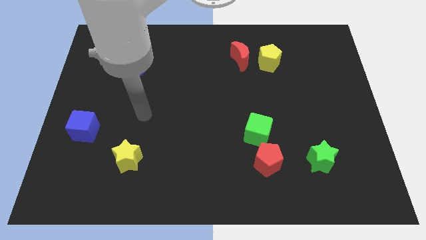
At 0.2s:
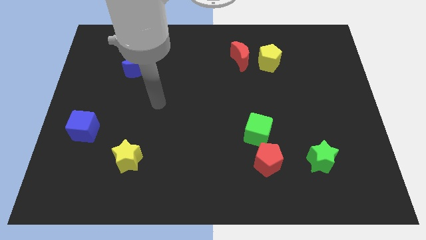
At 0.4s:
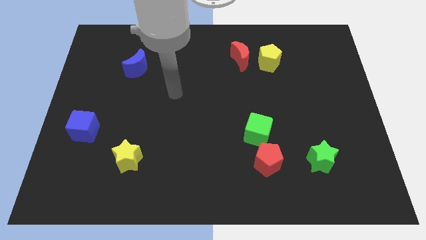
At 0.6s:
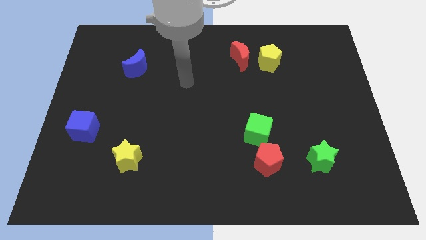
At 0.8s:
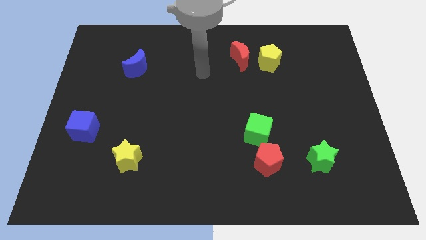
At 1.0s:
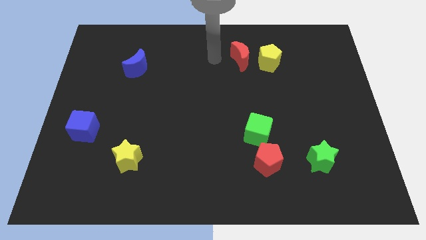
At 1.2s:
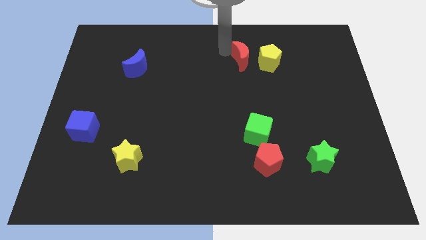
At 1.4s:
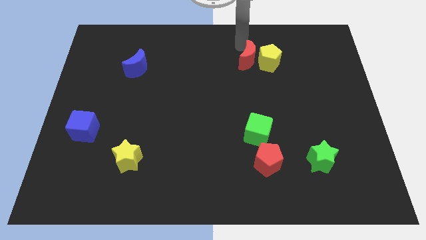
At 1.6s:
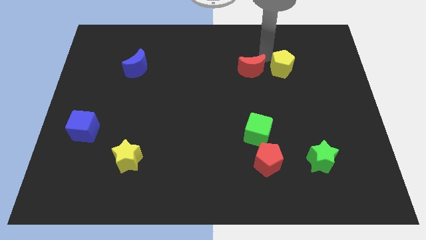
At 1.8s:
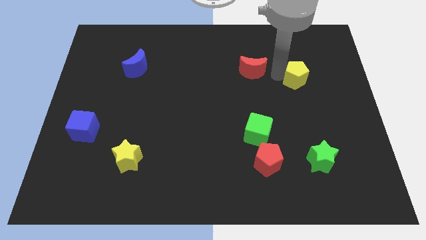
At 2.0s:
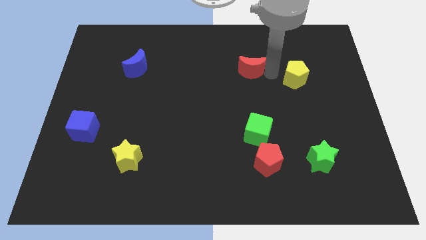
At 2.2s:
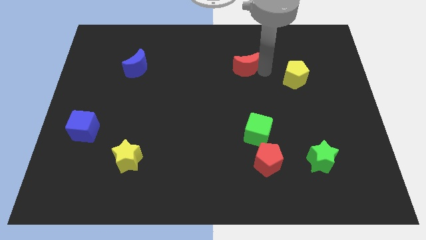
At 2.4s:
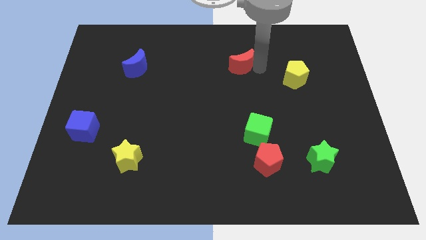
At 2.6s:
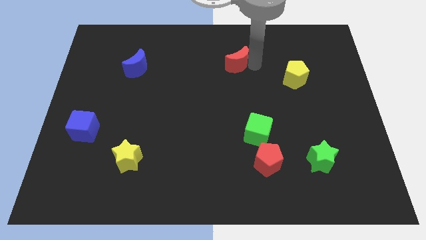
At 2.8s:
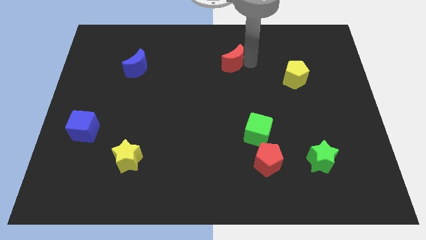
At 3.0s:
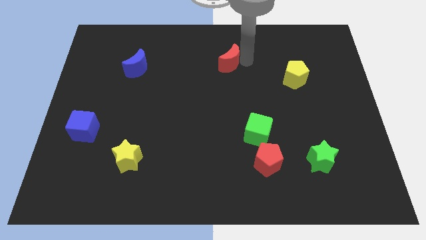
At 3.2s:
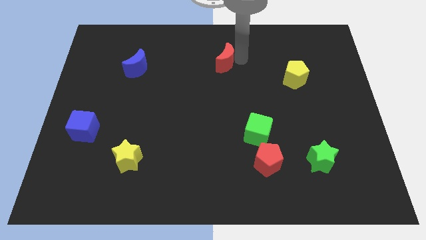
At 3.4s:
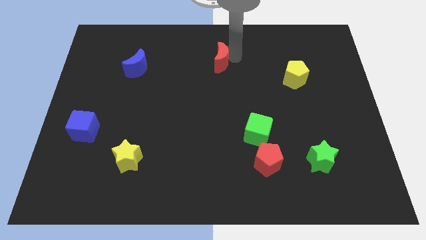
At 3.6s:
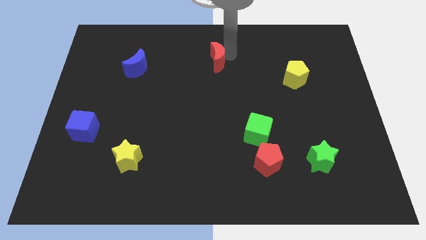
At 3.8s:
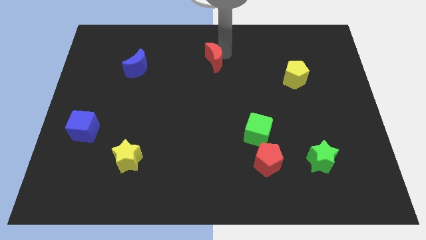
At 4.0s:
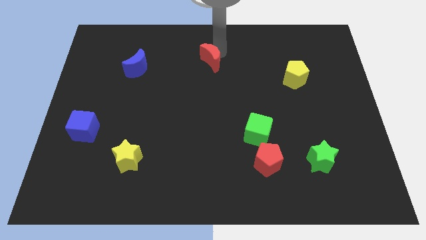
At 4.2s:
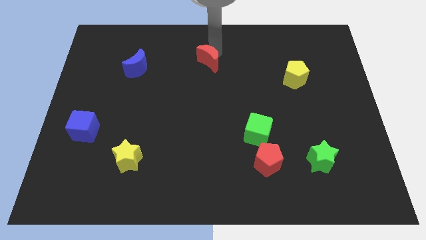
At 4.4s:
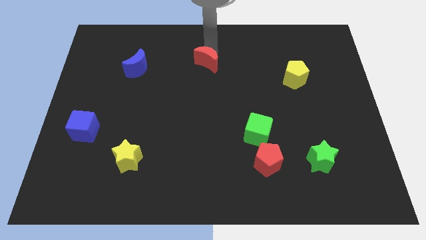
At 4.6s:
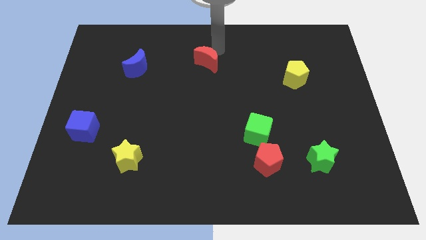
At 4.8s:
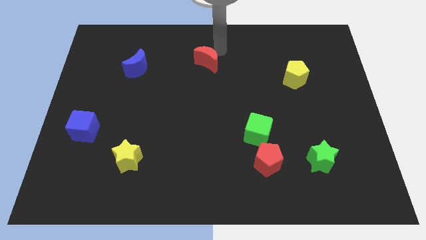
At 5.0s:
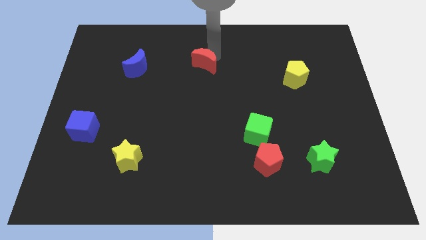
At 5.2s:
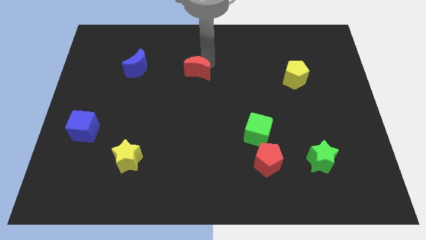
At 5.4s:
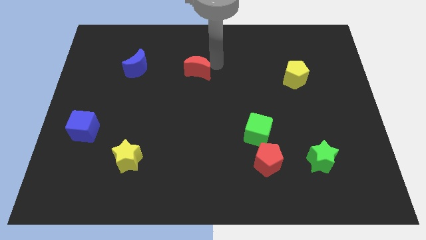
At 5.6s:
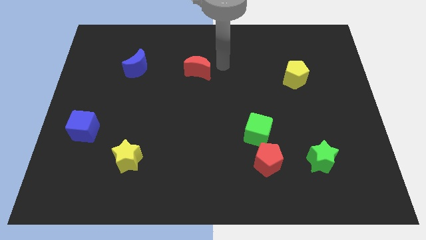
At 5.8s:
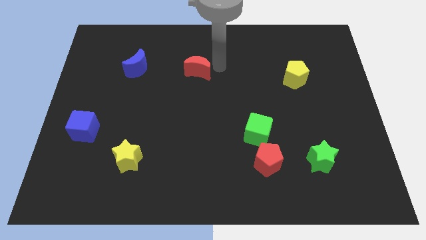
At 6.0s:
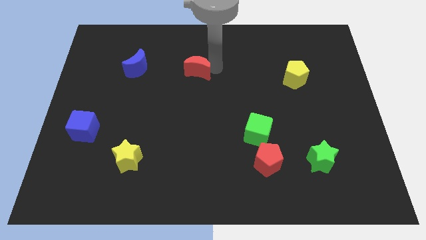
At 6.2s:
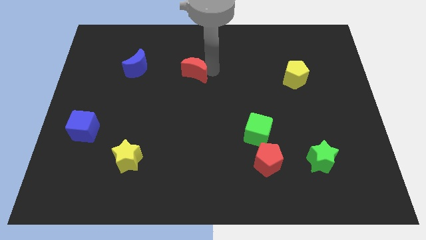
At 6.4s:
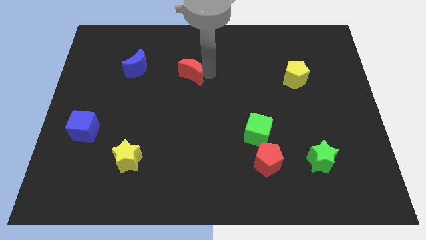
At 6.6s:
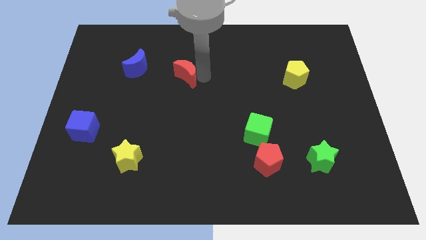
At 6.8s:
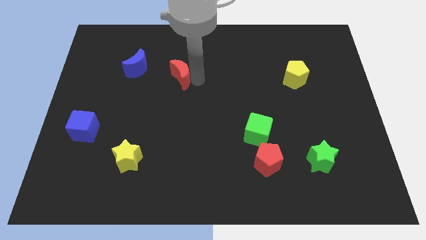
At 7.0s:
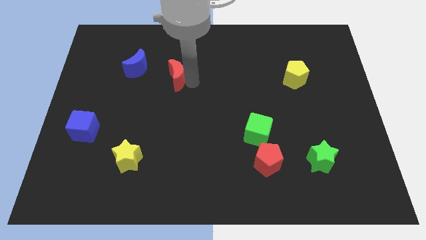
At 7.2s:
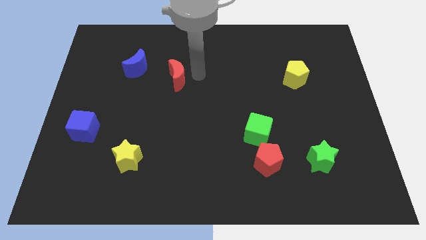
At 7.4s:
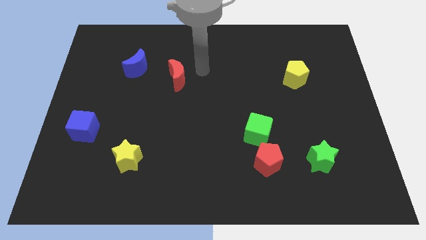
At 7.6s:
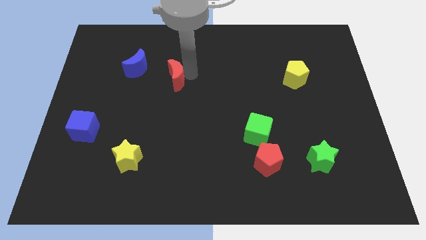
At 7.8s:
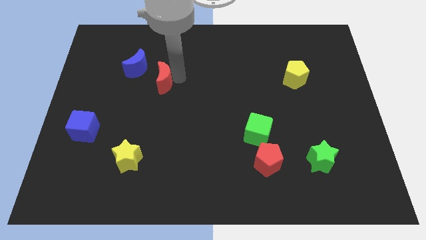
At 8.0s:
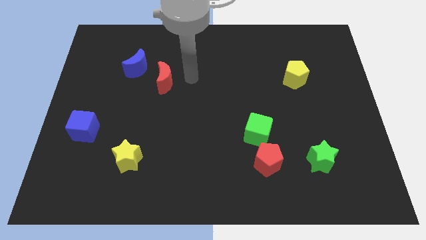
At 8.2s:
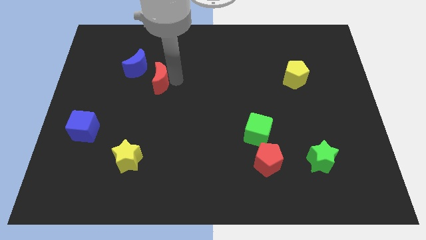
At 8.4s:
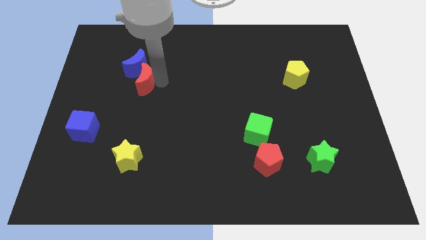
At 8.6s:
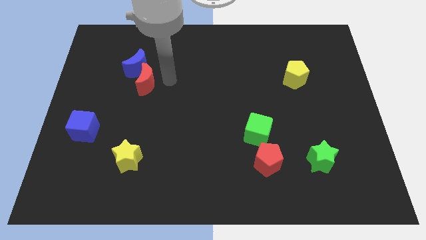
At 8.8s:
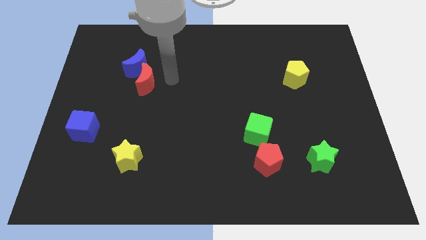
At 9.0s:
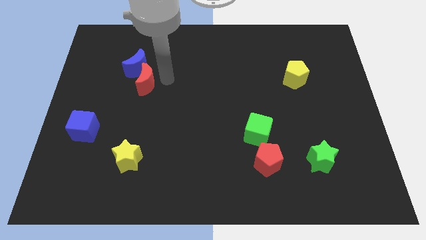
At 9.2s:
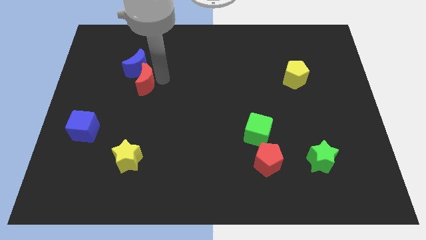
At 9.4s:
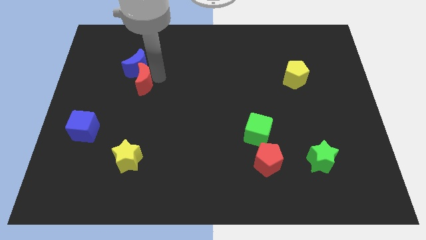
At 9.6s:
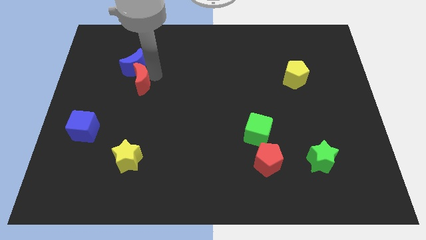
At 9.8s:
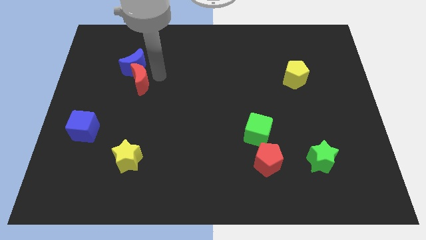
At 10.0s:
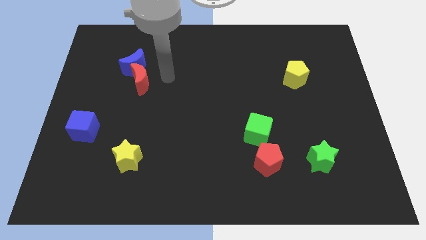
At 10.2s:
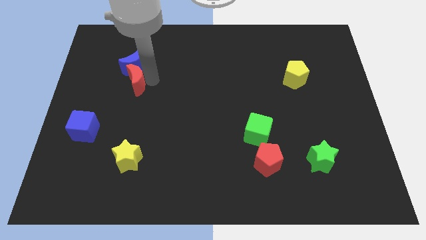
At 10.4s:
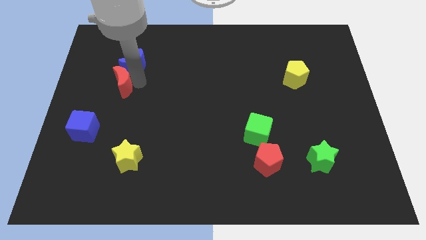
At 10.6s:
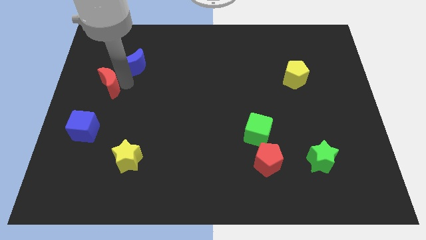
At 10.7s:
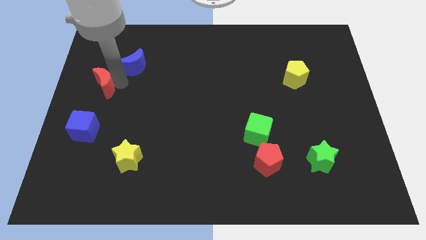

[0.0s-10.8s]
push the red moon to the left side

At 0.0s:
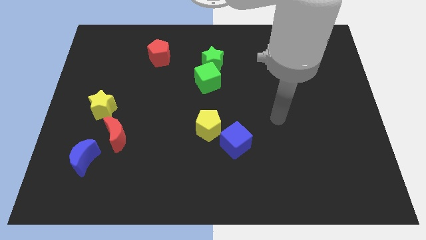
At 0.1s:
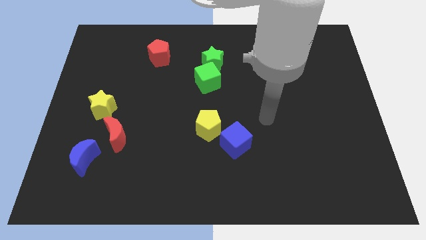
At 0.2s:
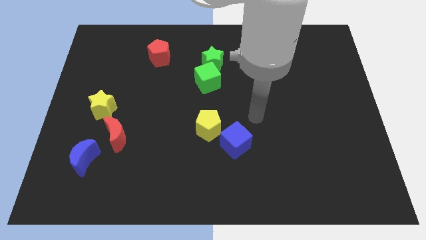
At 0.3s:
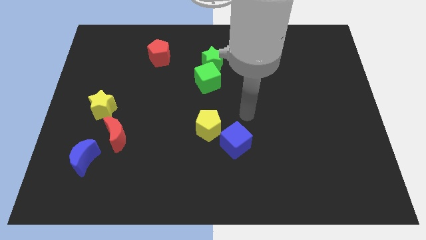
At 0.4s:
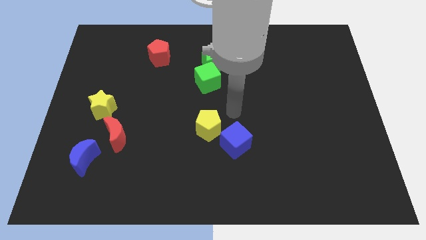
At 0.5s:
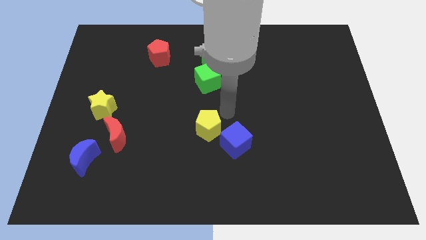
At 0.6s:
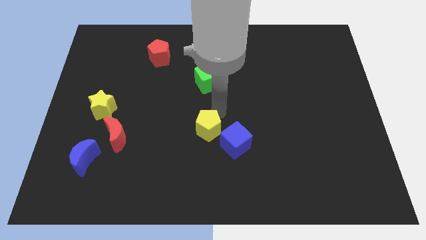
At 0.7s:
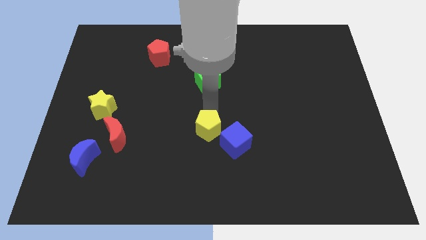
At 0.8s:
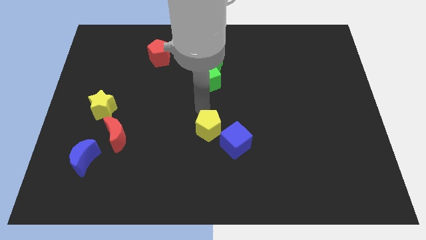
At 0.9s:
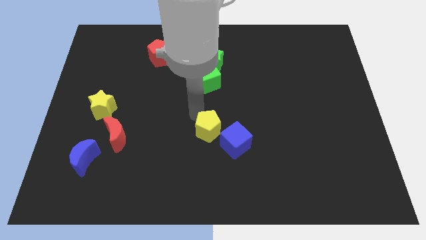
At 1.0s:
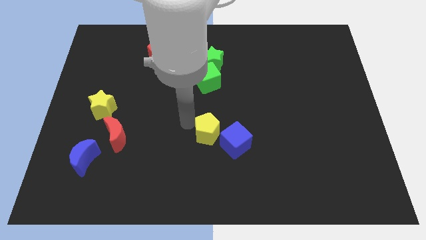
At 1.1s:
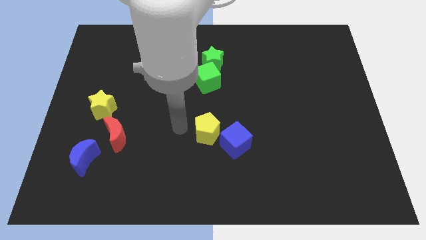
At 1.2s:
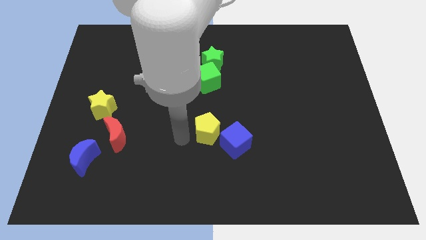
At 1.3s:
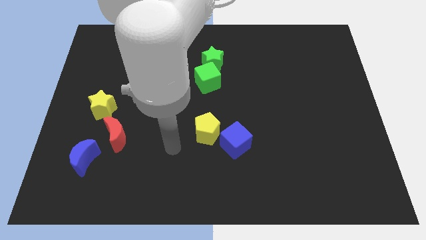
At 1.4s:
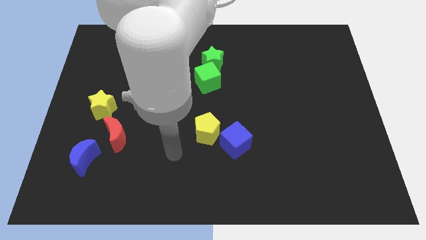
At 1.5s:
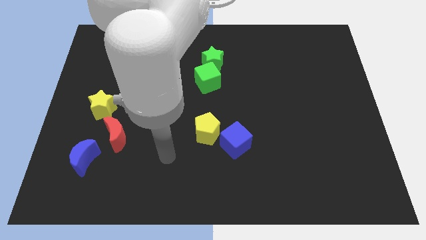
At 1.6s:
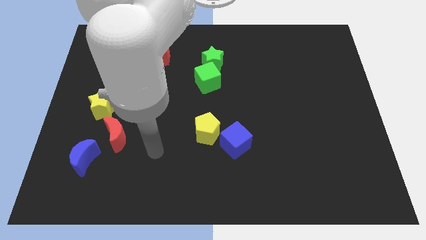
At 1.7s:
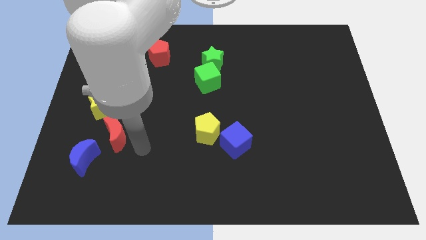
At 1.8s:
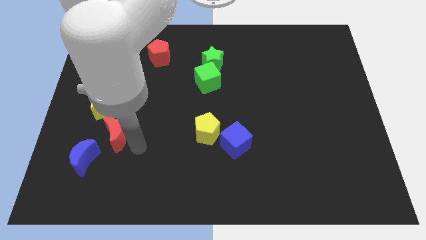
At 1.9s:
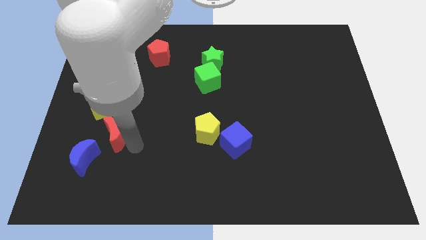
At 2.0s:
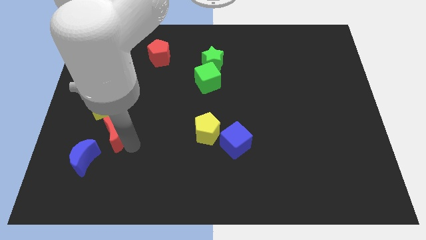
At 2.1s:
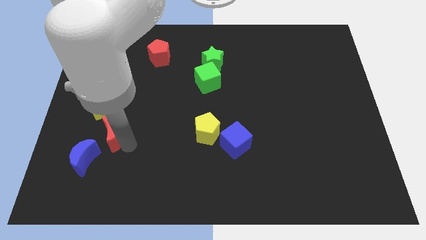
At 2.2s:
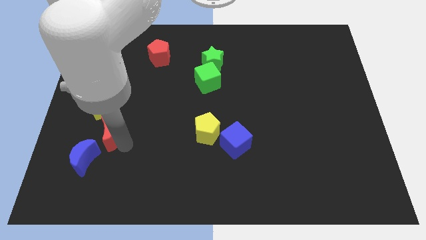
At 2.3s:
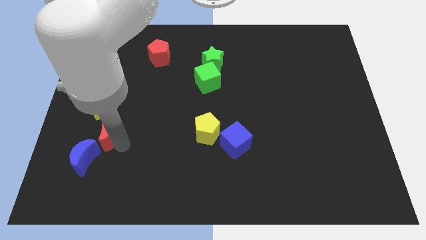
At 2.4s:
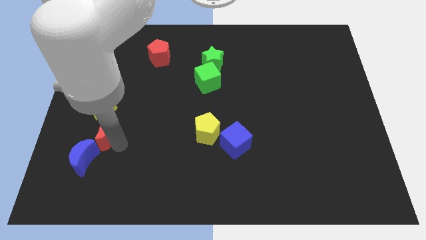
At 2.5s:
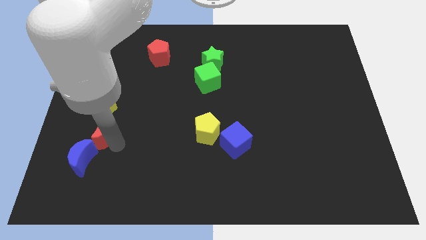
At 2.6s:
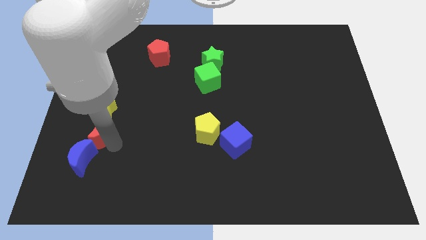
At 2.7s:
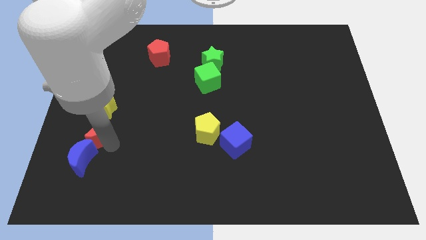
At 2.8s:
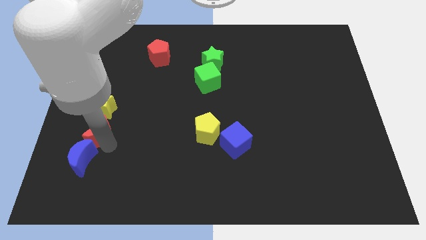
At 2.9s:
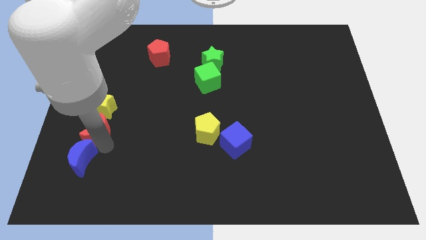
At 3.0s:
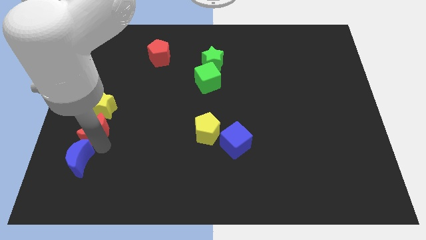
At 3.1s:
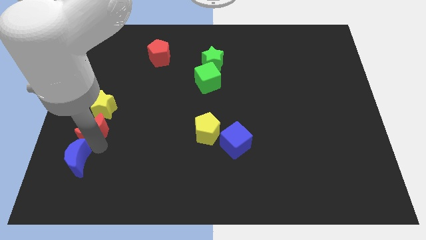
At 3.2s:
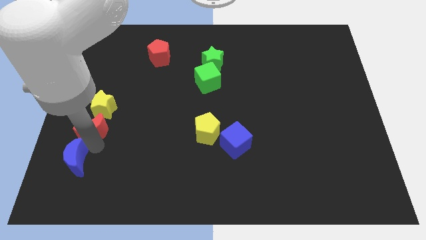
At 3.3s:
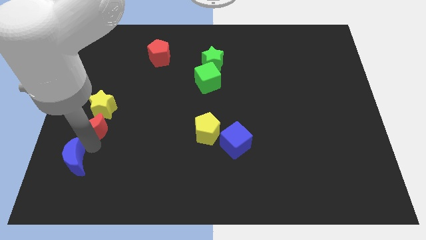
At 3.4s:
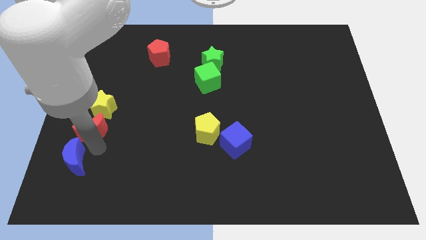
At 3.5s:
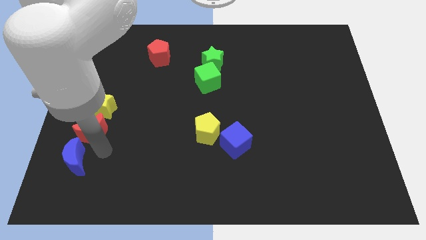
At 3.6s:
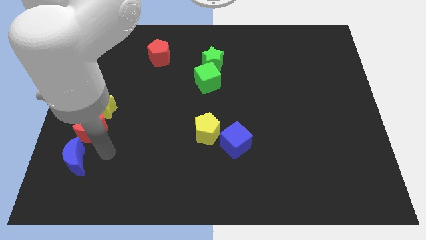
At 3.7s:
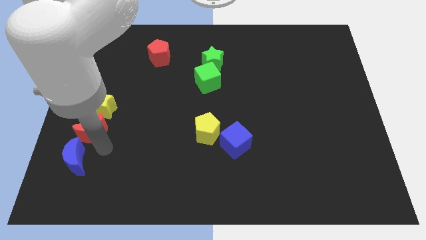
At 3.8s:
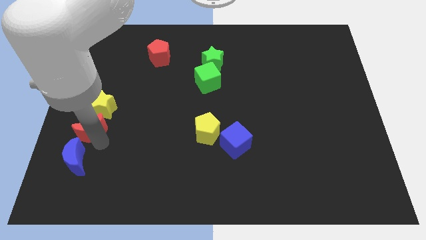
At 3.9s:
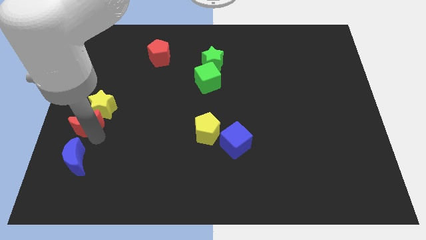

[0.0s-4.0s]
push the red moon to the left side of the board
